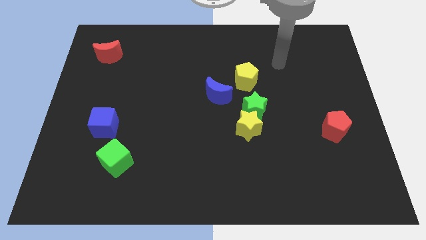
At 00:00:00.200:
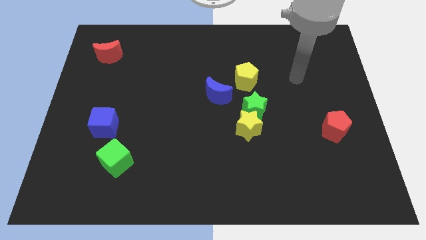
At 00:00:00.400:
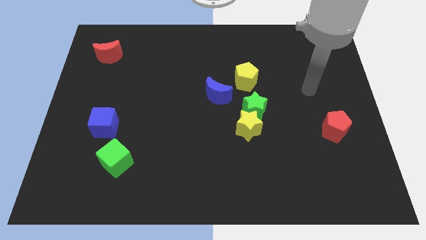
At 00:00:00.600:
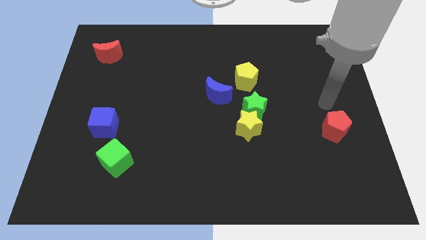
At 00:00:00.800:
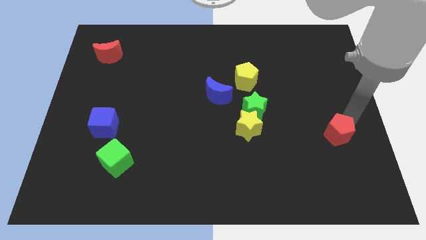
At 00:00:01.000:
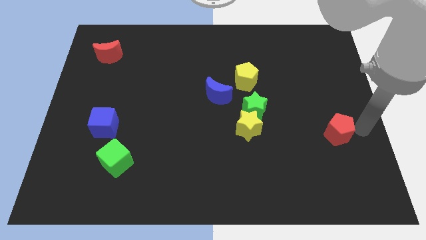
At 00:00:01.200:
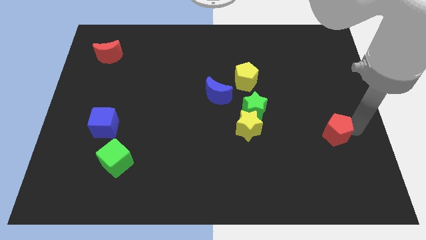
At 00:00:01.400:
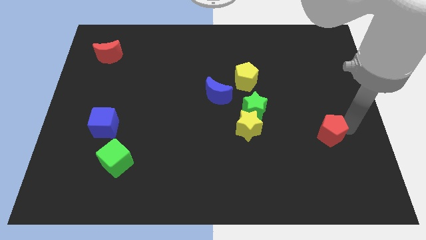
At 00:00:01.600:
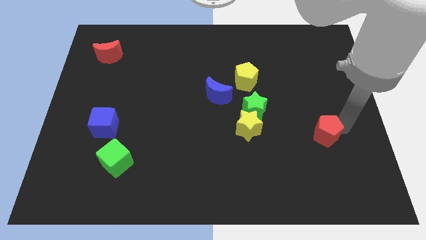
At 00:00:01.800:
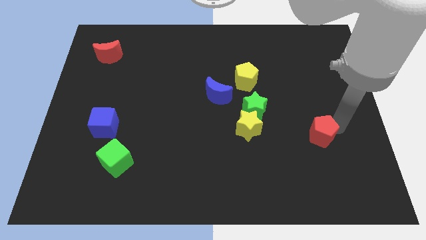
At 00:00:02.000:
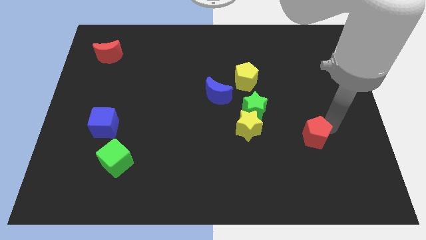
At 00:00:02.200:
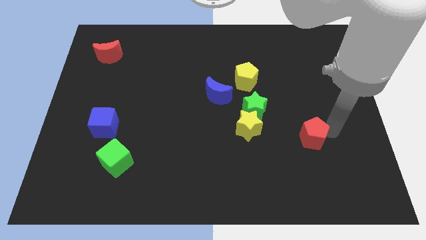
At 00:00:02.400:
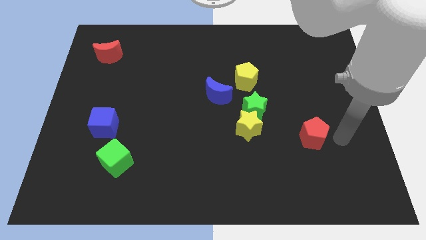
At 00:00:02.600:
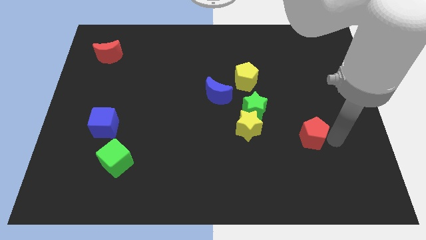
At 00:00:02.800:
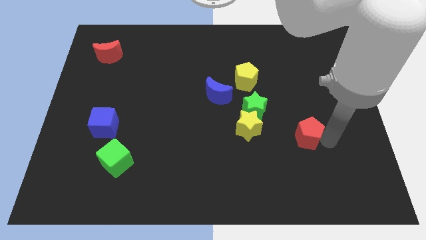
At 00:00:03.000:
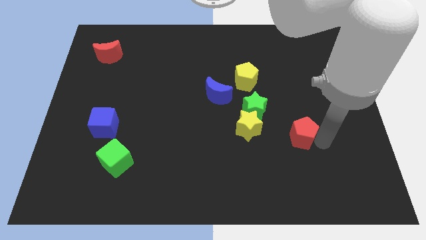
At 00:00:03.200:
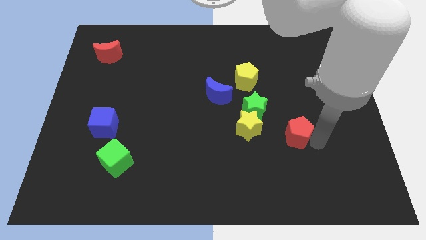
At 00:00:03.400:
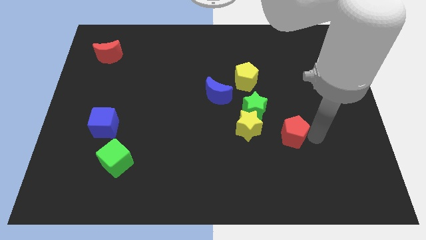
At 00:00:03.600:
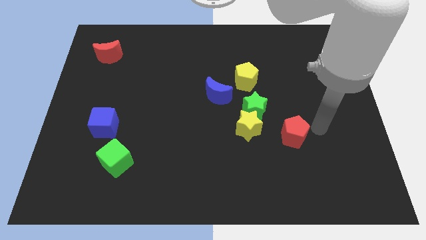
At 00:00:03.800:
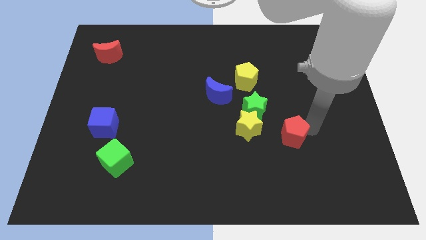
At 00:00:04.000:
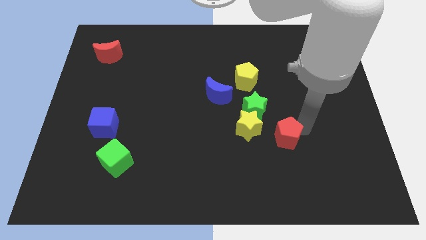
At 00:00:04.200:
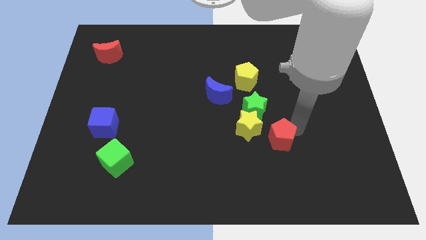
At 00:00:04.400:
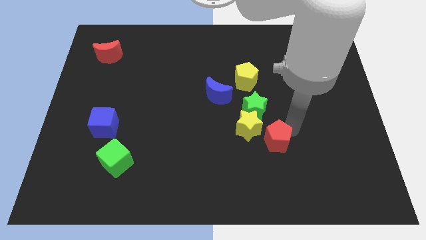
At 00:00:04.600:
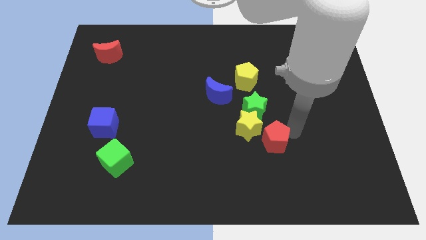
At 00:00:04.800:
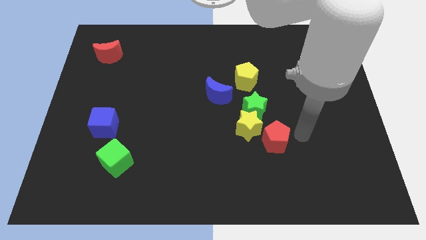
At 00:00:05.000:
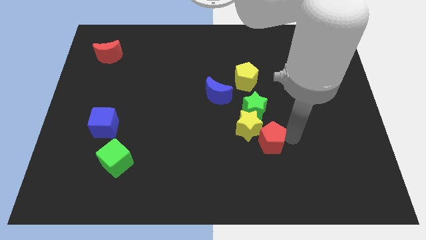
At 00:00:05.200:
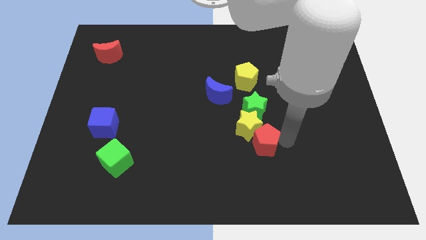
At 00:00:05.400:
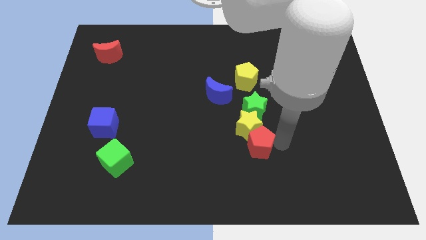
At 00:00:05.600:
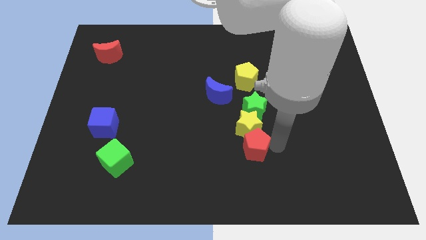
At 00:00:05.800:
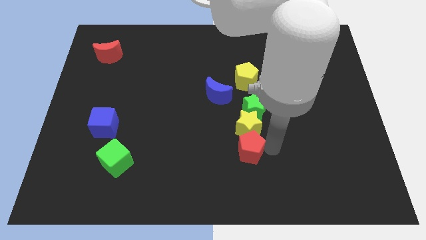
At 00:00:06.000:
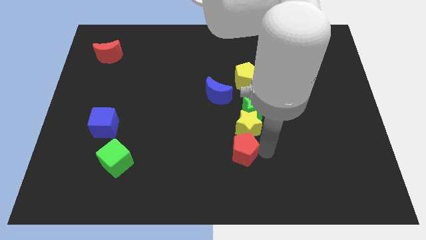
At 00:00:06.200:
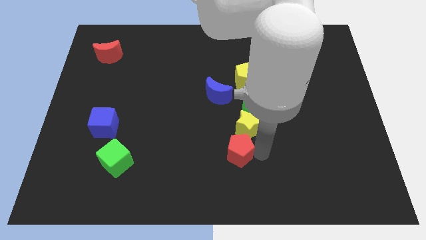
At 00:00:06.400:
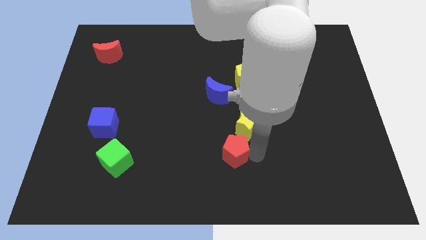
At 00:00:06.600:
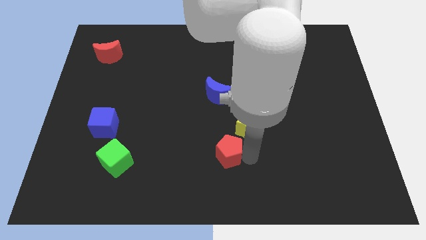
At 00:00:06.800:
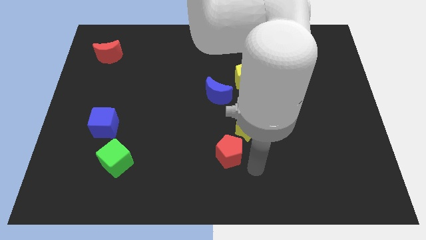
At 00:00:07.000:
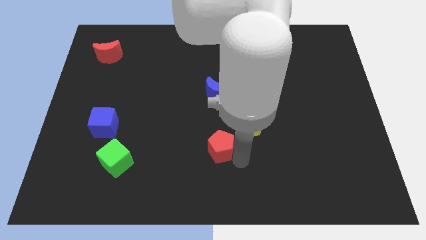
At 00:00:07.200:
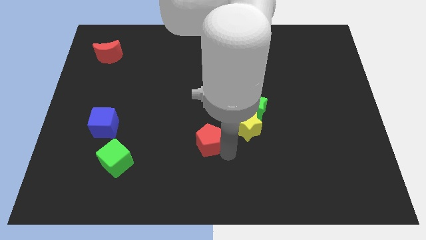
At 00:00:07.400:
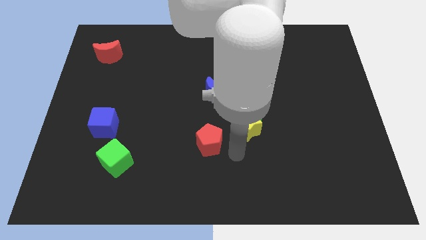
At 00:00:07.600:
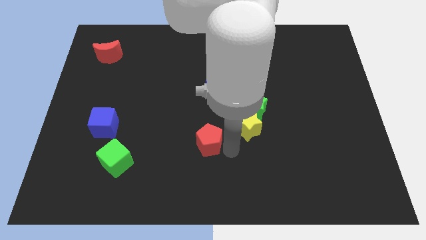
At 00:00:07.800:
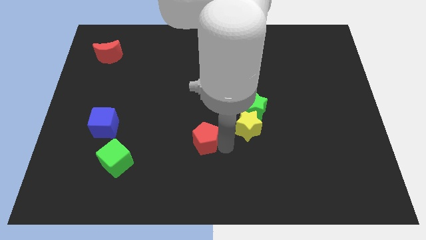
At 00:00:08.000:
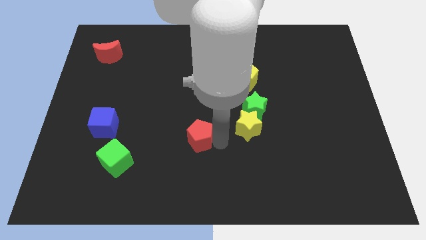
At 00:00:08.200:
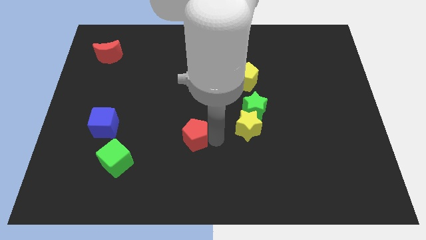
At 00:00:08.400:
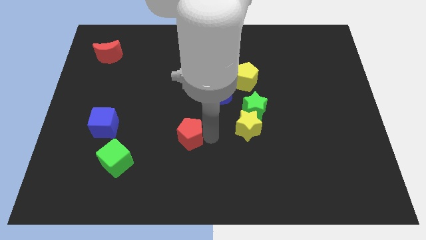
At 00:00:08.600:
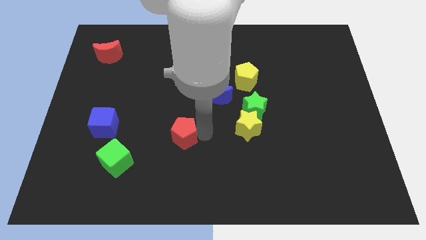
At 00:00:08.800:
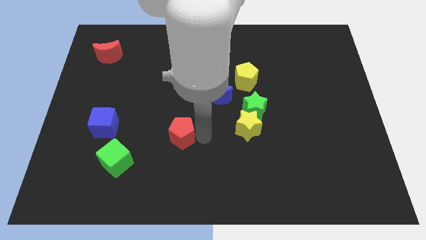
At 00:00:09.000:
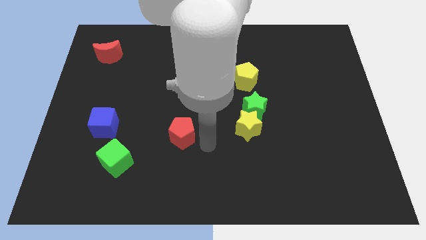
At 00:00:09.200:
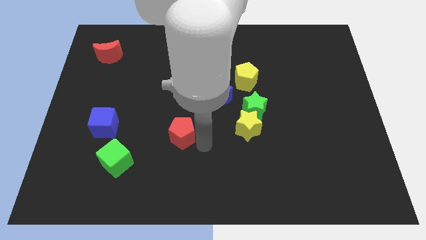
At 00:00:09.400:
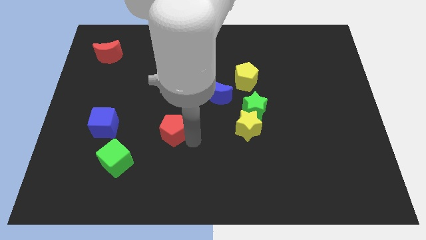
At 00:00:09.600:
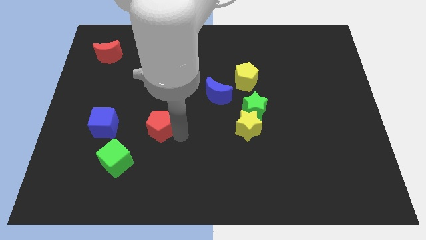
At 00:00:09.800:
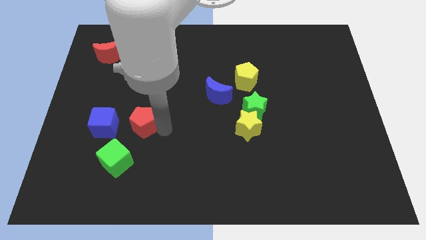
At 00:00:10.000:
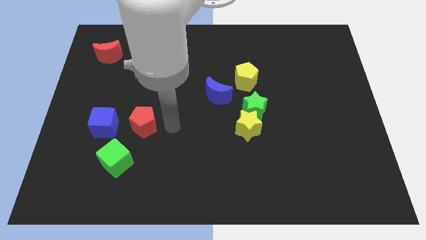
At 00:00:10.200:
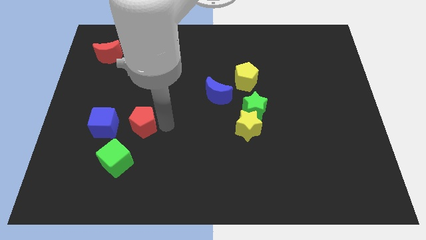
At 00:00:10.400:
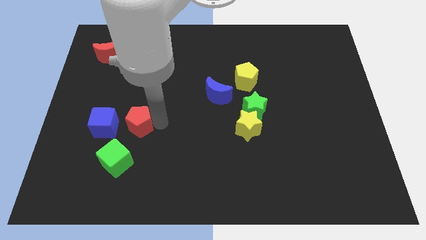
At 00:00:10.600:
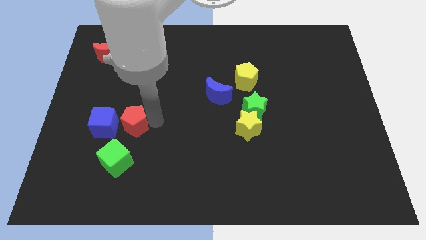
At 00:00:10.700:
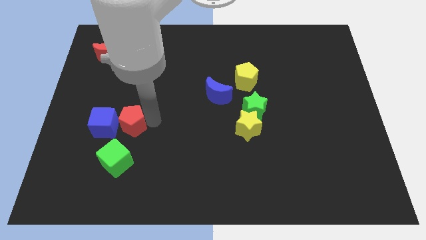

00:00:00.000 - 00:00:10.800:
move the red pentagon close to the blue cube
